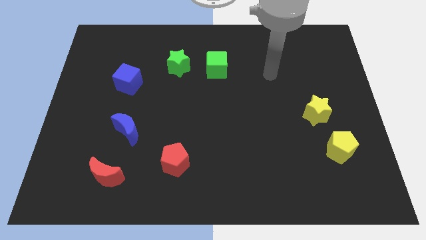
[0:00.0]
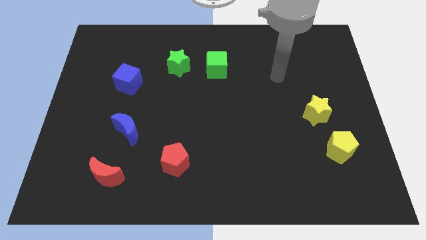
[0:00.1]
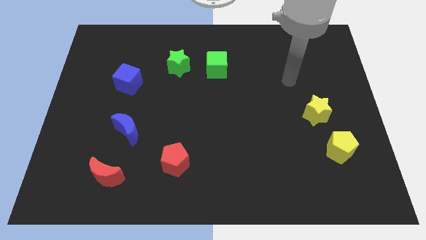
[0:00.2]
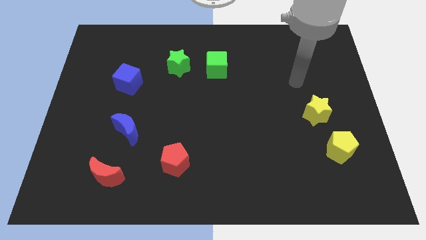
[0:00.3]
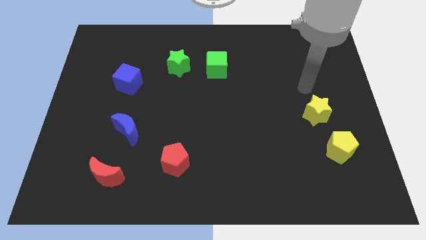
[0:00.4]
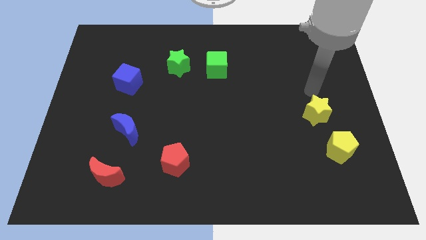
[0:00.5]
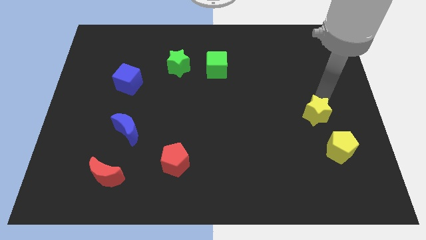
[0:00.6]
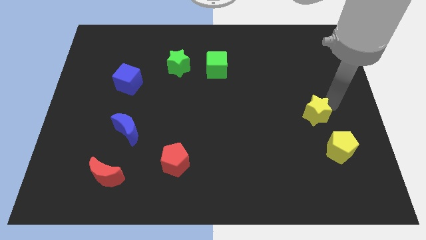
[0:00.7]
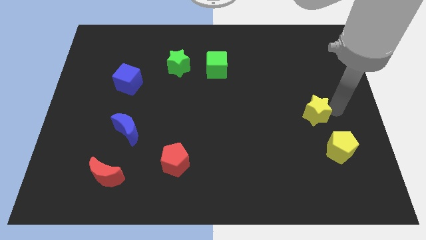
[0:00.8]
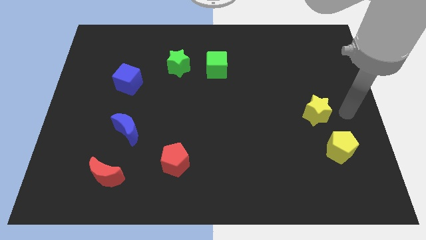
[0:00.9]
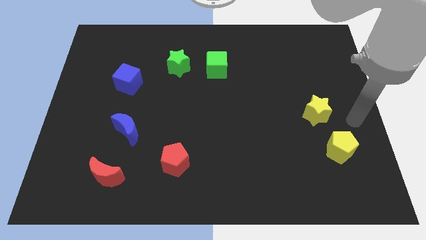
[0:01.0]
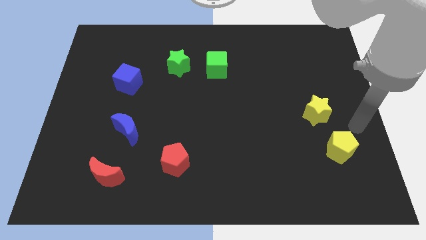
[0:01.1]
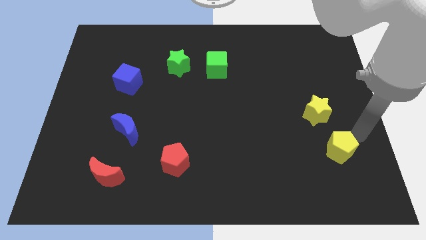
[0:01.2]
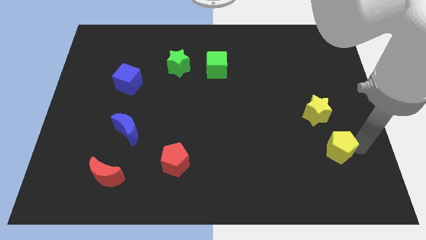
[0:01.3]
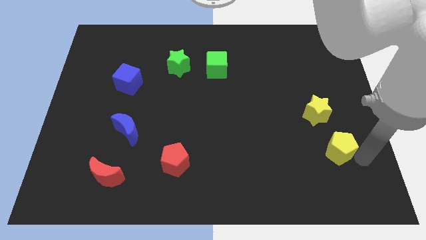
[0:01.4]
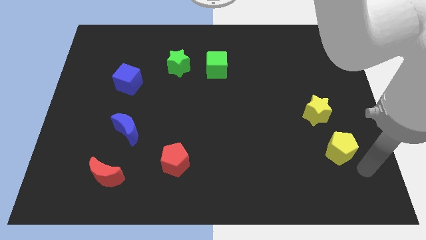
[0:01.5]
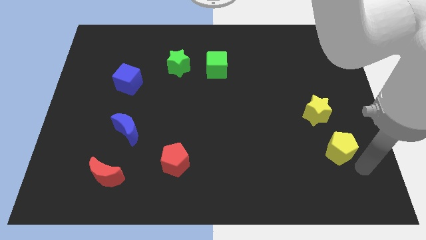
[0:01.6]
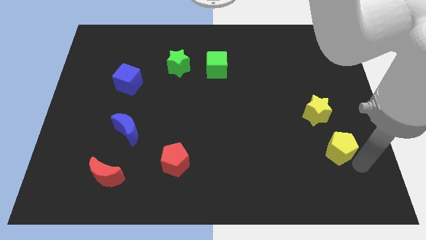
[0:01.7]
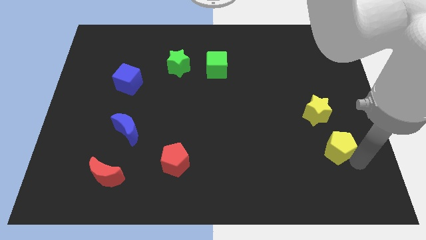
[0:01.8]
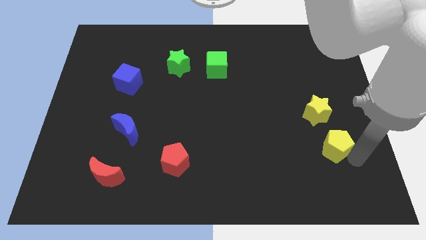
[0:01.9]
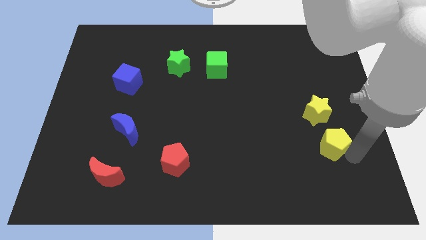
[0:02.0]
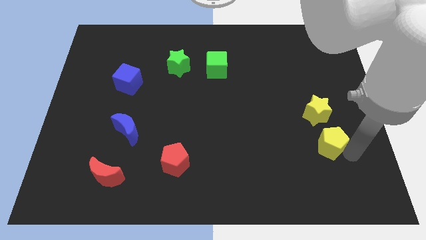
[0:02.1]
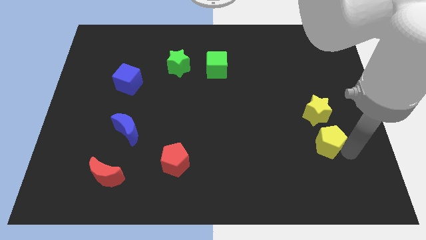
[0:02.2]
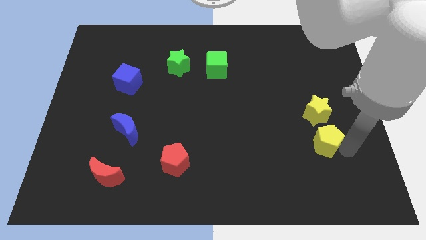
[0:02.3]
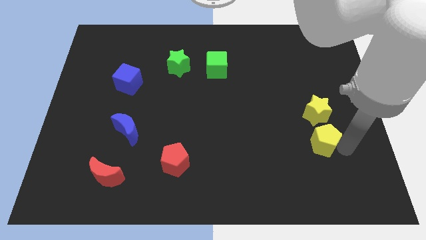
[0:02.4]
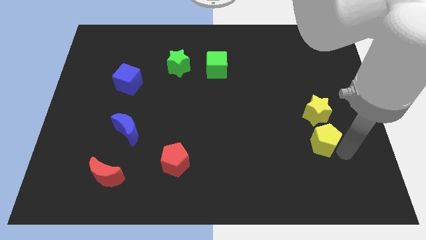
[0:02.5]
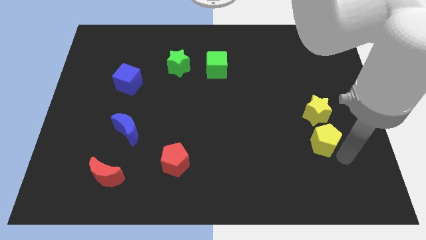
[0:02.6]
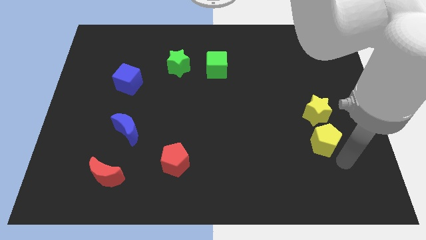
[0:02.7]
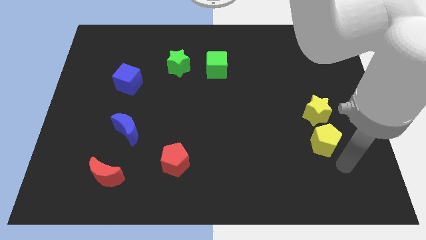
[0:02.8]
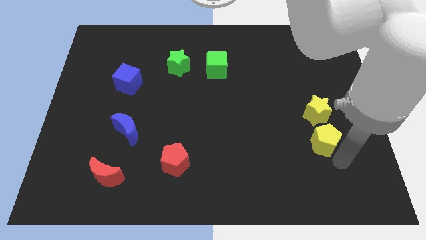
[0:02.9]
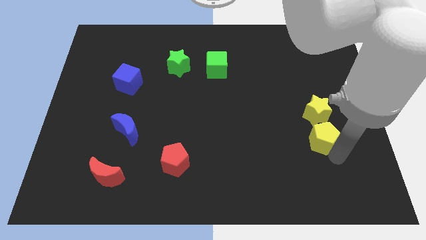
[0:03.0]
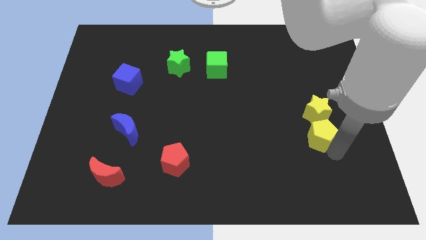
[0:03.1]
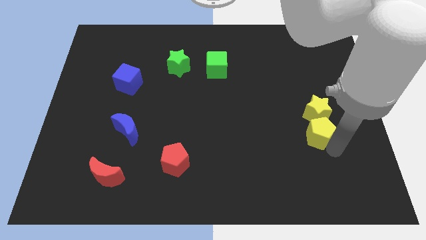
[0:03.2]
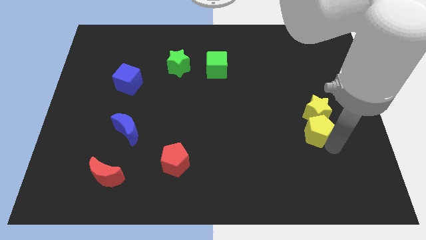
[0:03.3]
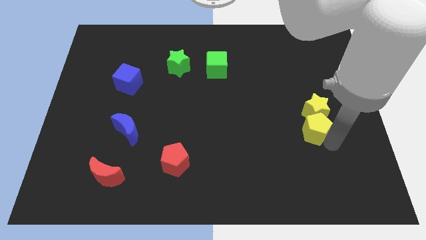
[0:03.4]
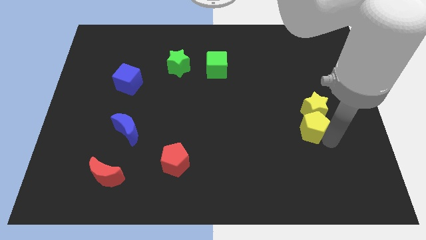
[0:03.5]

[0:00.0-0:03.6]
slide the yellow pentagon a bit up and left

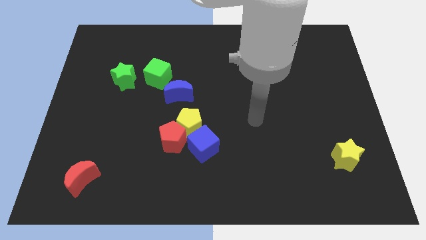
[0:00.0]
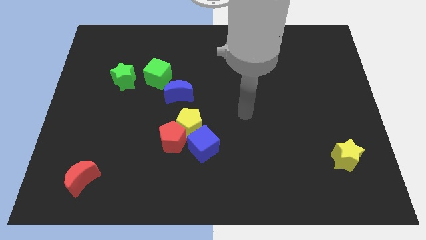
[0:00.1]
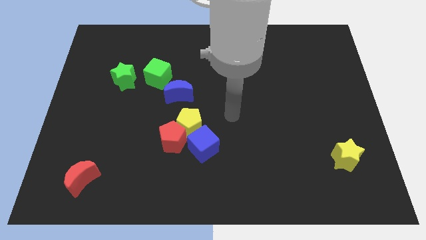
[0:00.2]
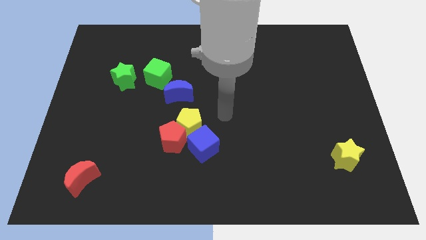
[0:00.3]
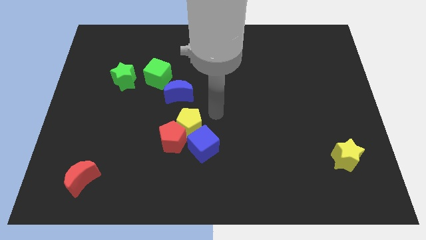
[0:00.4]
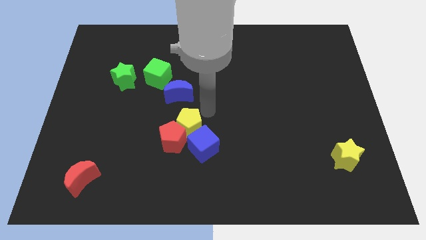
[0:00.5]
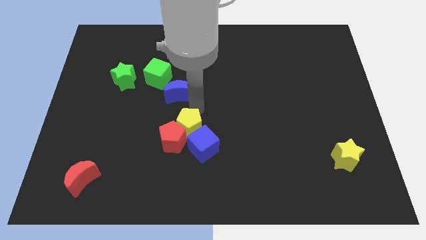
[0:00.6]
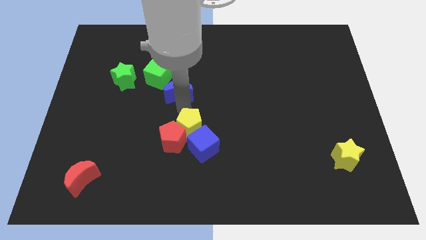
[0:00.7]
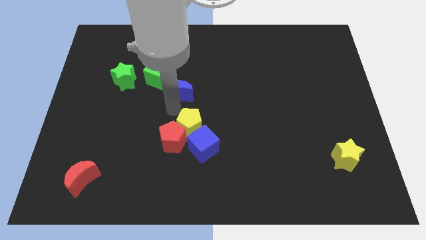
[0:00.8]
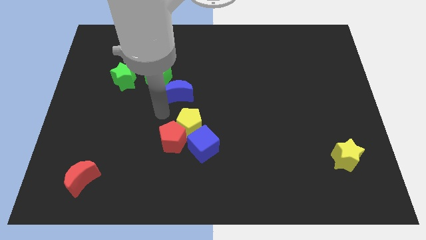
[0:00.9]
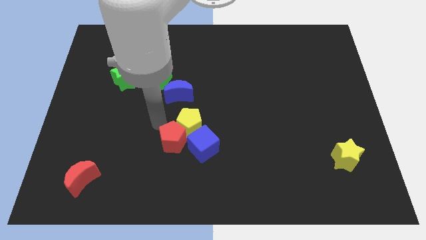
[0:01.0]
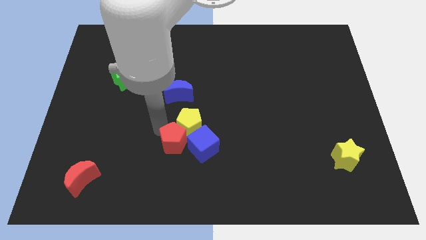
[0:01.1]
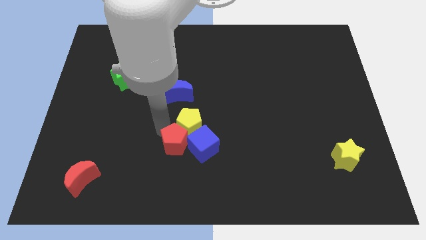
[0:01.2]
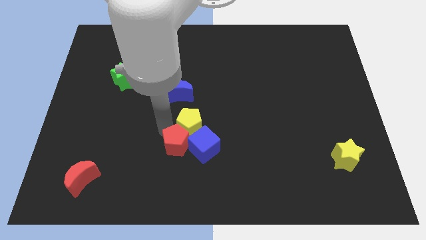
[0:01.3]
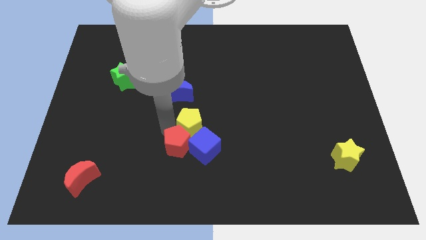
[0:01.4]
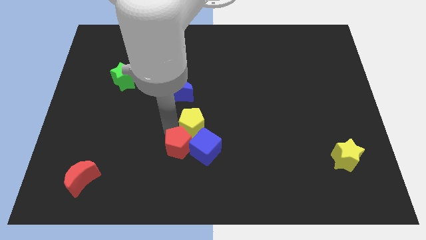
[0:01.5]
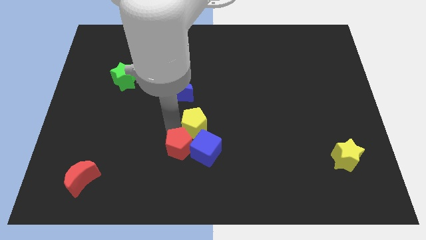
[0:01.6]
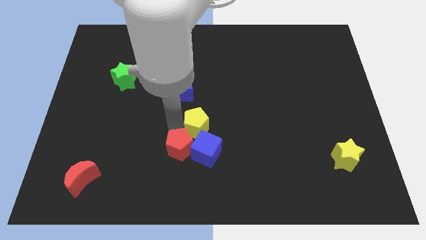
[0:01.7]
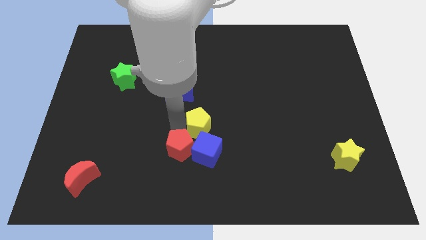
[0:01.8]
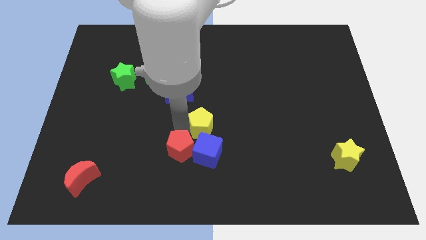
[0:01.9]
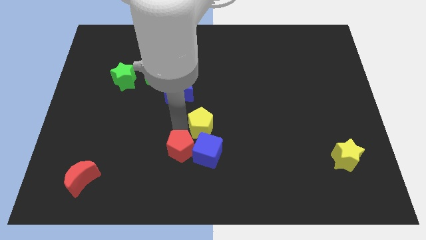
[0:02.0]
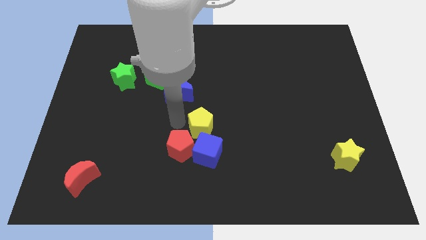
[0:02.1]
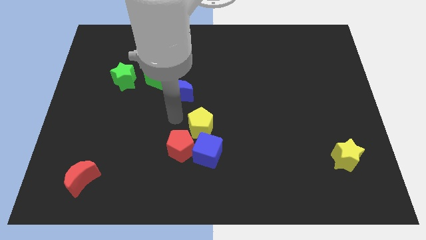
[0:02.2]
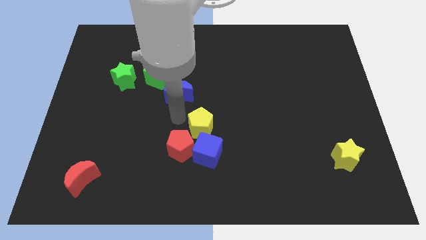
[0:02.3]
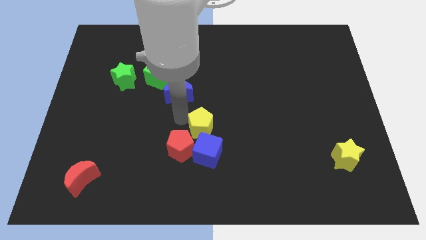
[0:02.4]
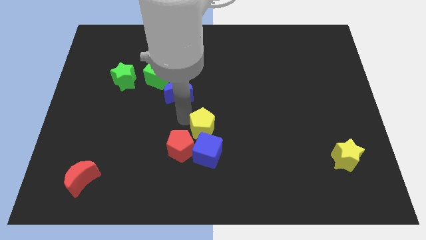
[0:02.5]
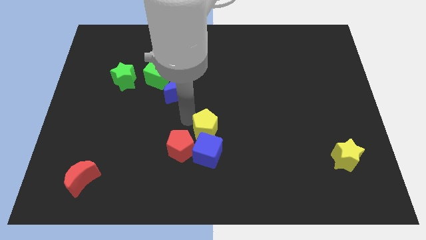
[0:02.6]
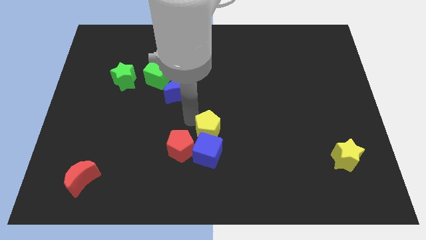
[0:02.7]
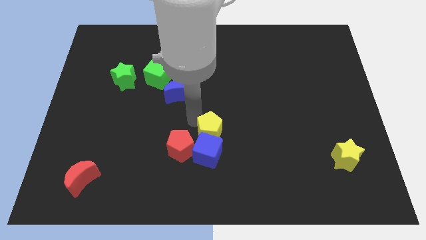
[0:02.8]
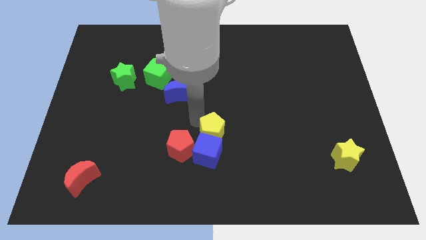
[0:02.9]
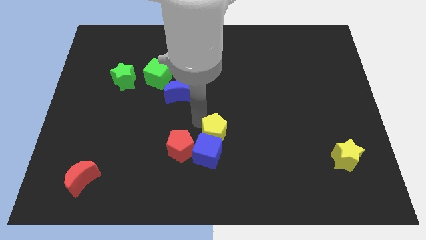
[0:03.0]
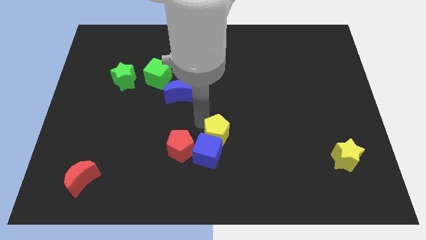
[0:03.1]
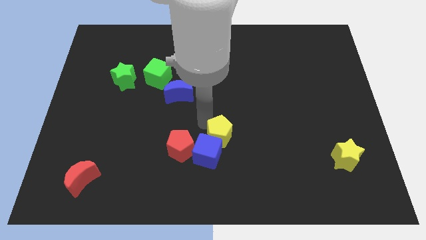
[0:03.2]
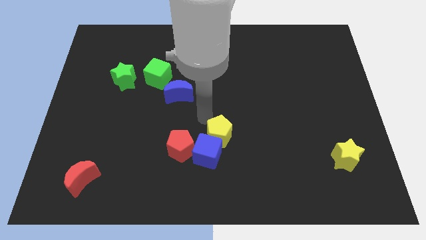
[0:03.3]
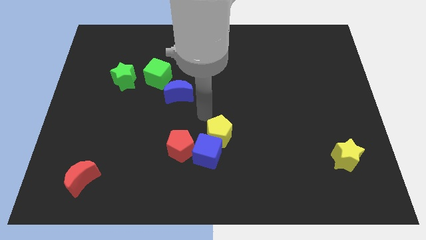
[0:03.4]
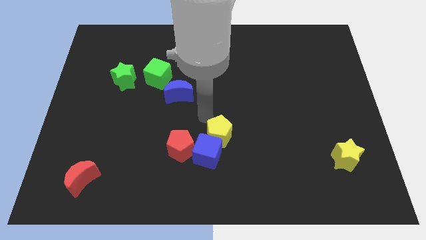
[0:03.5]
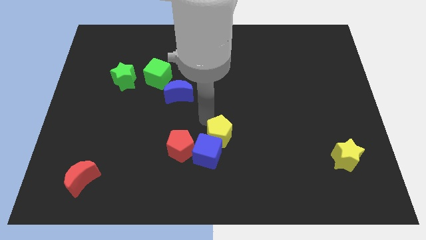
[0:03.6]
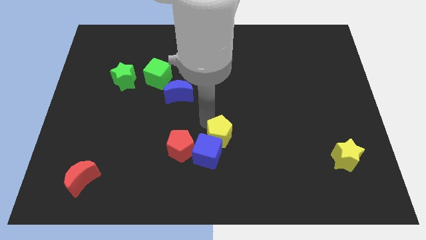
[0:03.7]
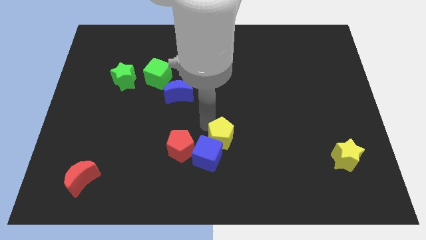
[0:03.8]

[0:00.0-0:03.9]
push the yellow pentagon a little downwards and to the right diagonally

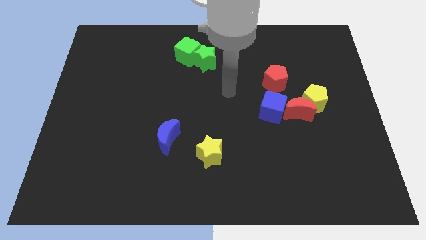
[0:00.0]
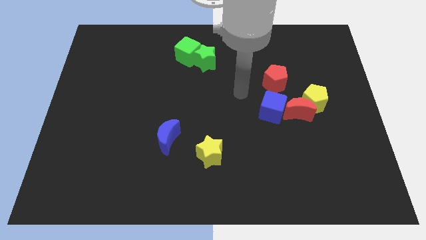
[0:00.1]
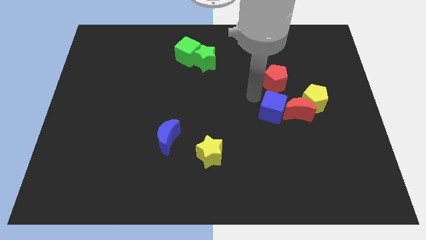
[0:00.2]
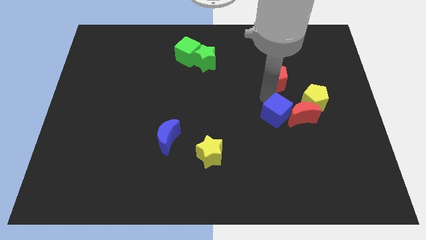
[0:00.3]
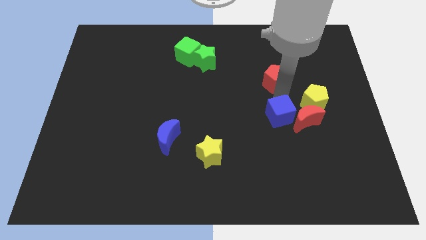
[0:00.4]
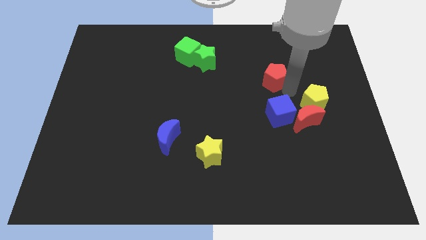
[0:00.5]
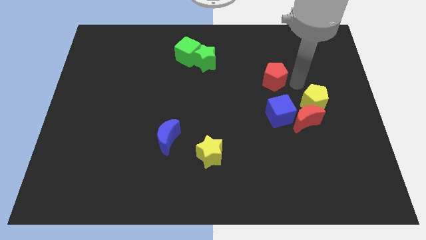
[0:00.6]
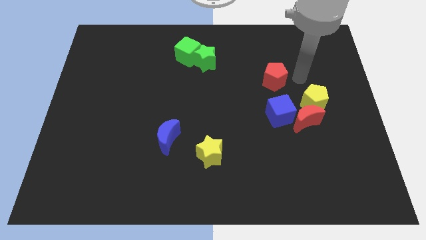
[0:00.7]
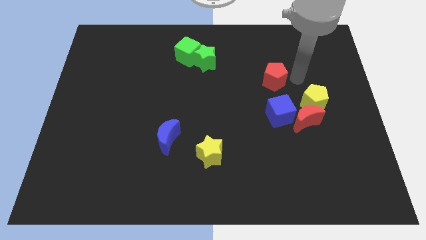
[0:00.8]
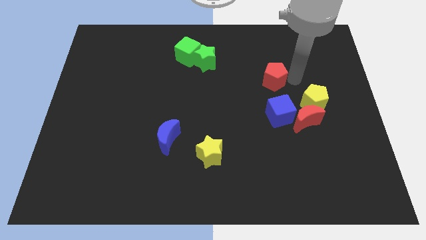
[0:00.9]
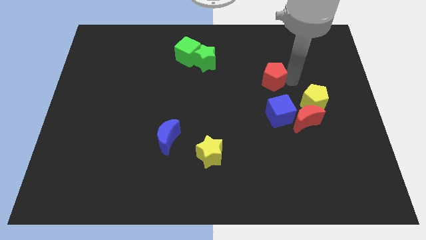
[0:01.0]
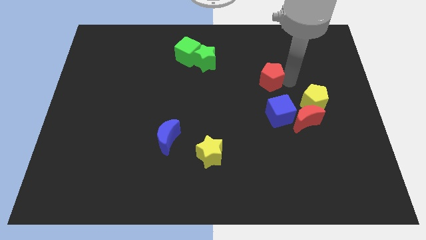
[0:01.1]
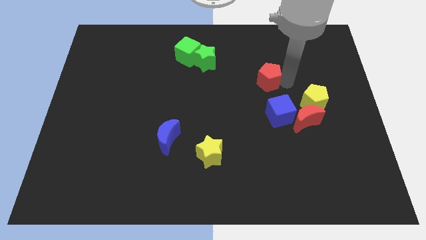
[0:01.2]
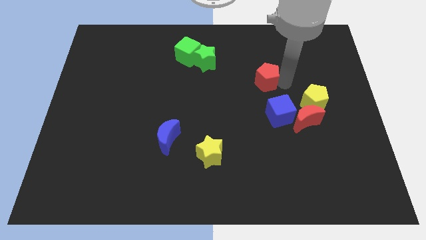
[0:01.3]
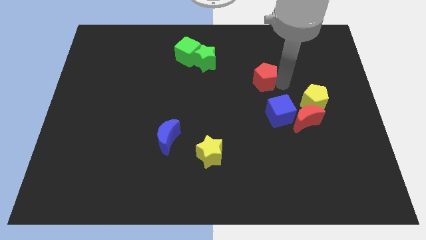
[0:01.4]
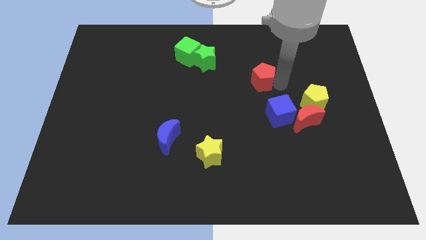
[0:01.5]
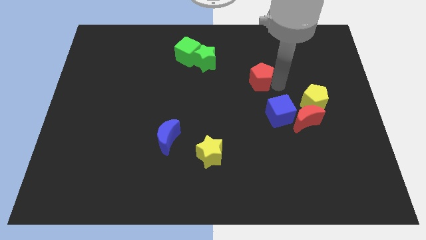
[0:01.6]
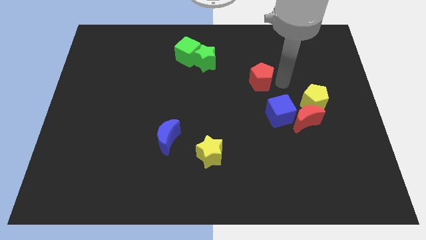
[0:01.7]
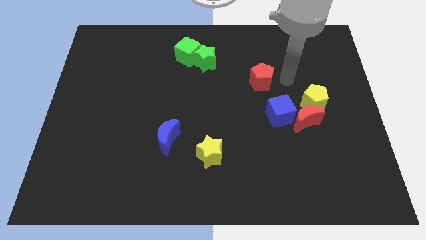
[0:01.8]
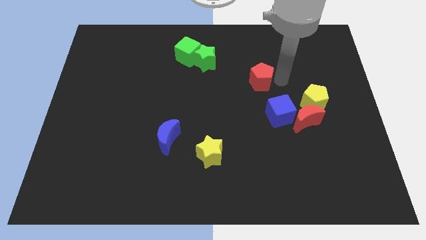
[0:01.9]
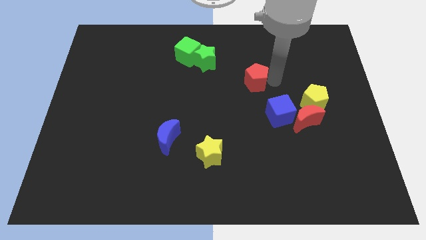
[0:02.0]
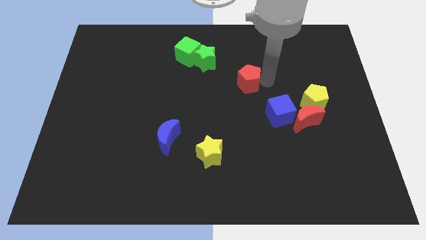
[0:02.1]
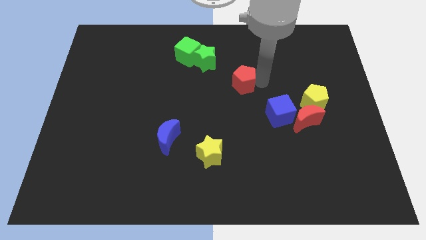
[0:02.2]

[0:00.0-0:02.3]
push the red pentagon a bit left
